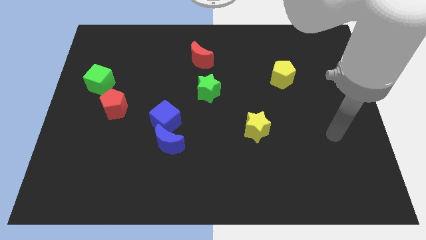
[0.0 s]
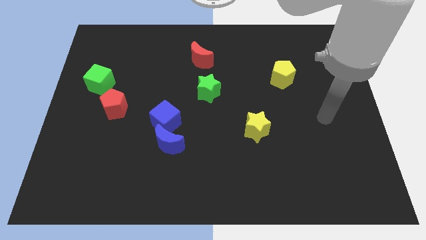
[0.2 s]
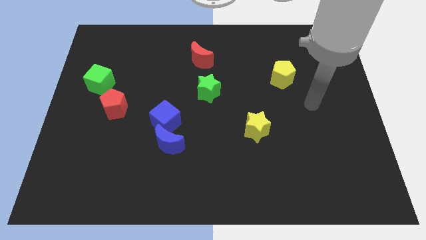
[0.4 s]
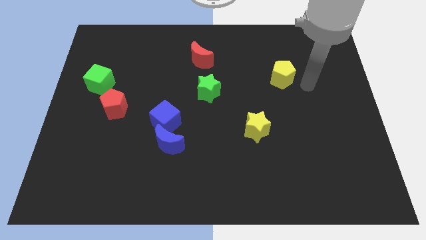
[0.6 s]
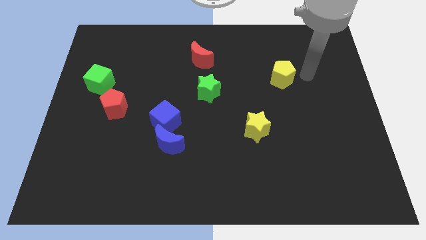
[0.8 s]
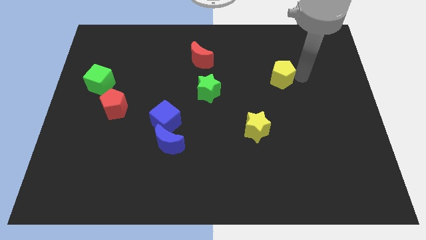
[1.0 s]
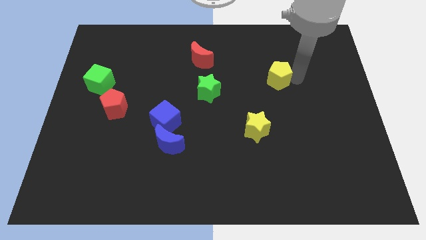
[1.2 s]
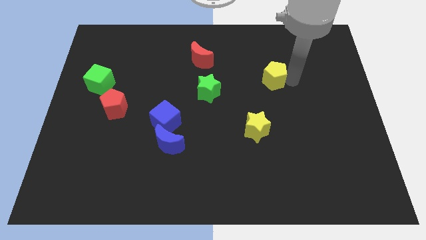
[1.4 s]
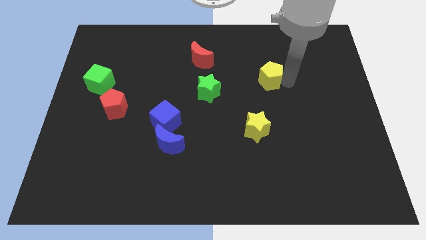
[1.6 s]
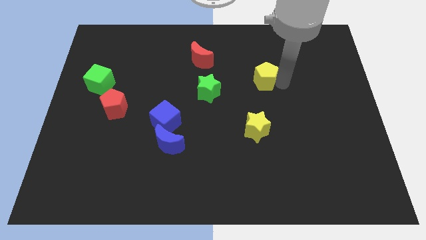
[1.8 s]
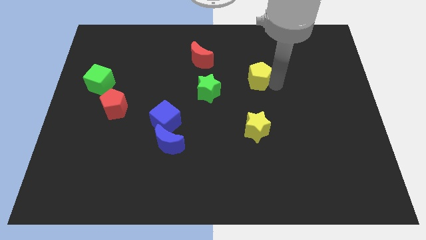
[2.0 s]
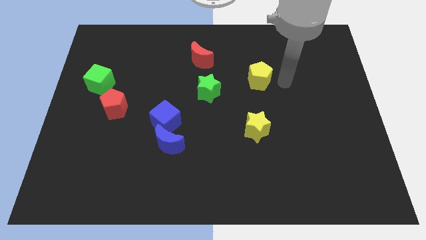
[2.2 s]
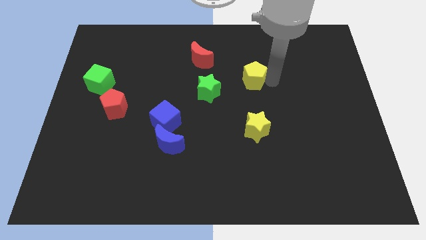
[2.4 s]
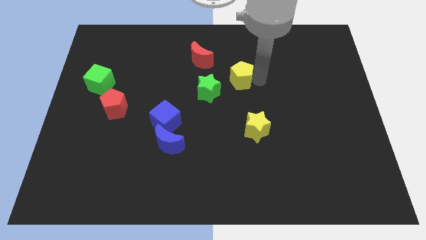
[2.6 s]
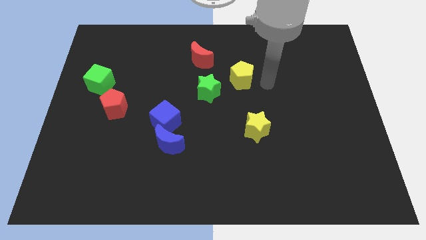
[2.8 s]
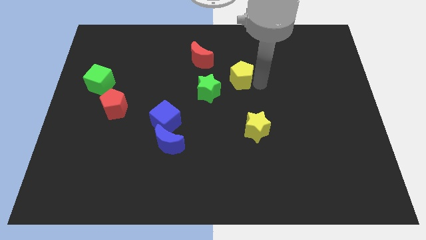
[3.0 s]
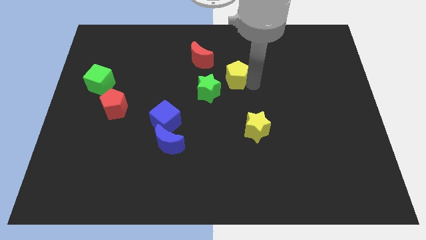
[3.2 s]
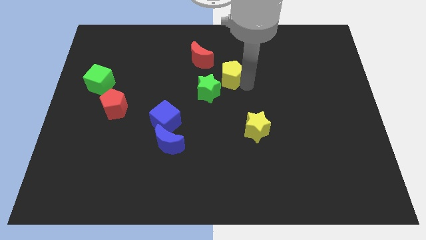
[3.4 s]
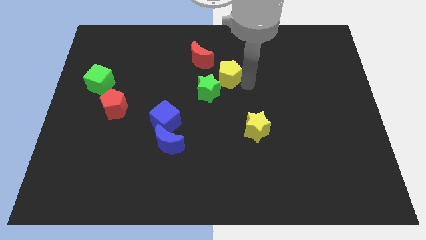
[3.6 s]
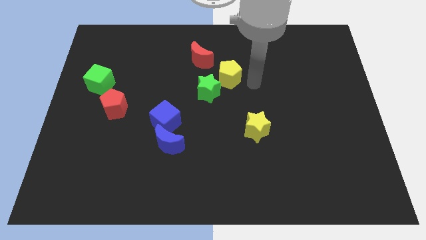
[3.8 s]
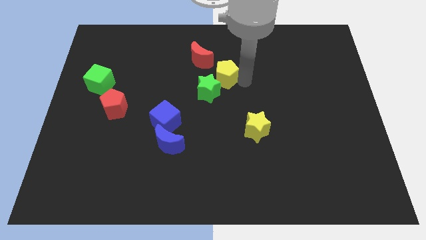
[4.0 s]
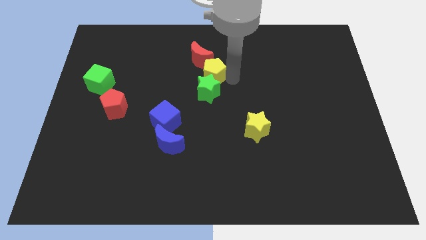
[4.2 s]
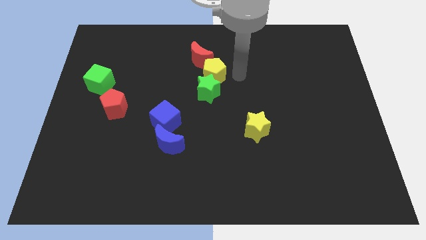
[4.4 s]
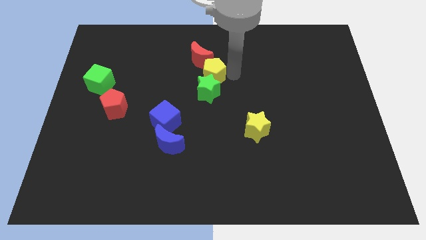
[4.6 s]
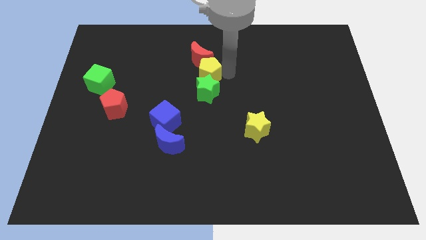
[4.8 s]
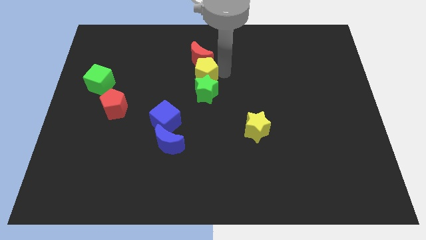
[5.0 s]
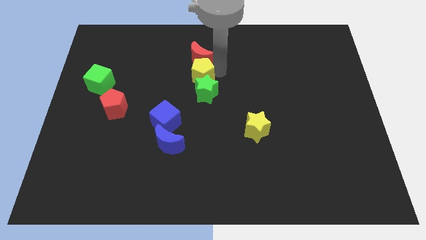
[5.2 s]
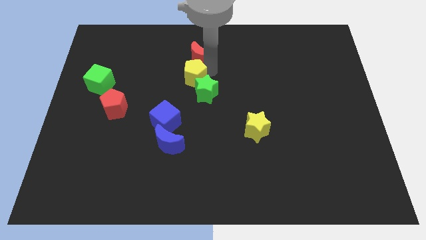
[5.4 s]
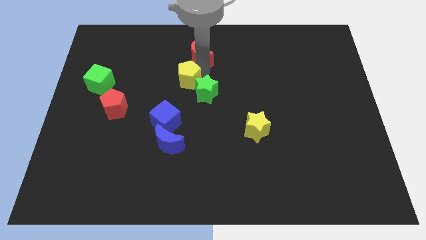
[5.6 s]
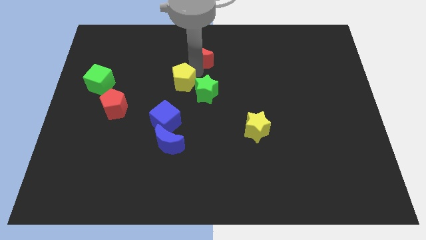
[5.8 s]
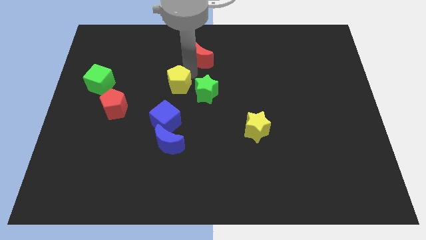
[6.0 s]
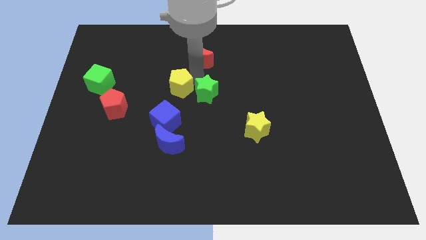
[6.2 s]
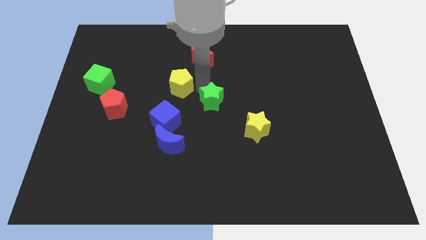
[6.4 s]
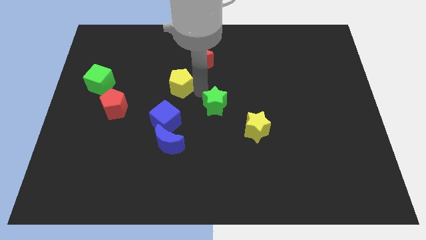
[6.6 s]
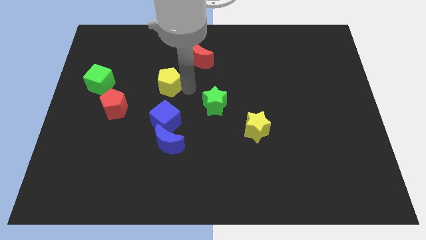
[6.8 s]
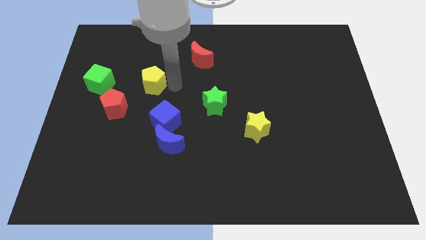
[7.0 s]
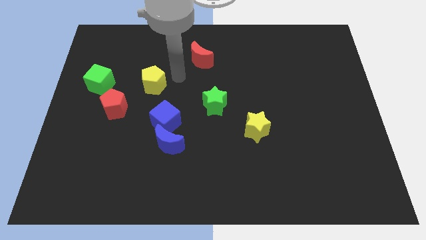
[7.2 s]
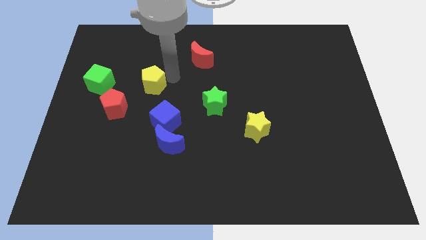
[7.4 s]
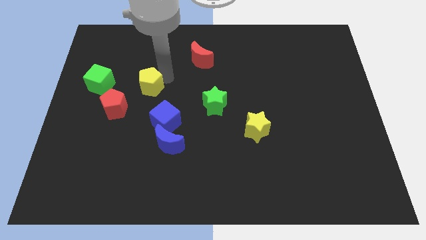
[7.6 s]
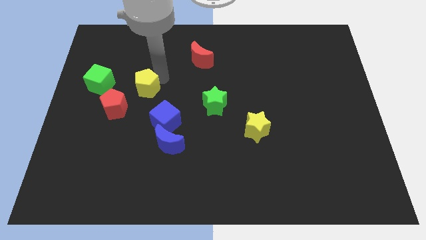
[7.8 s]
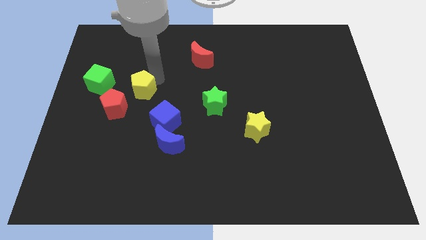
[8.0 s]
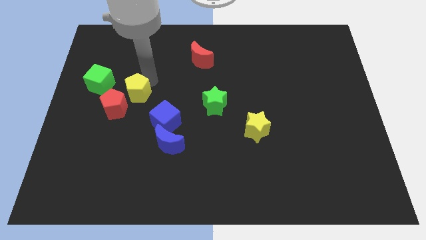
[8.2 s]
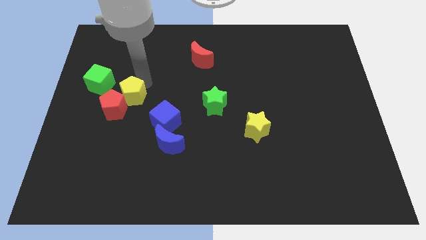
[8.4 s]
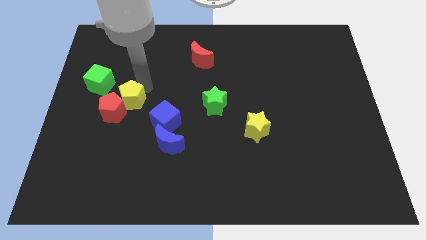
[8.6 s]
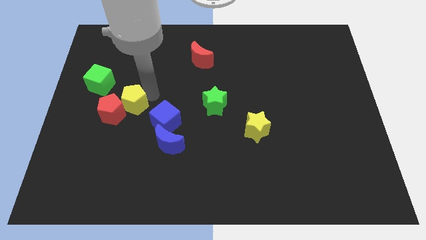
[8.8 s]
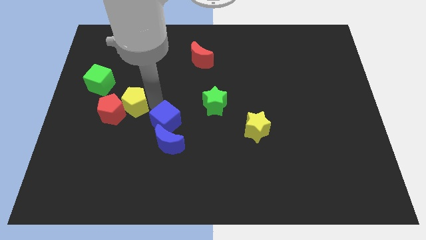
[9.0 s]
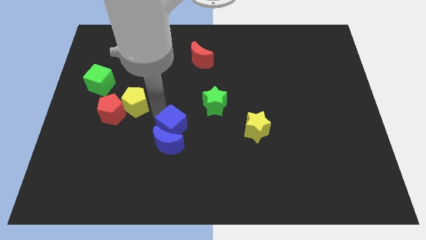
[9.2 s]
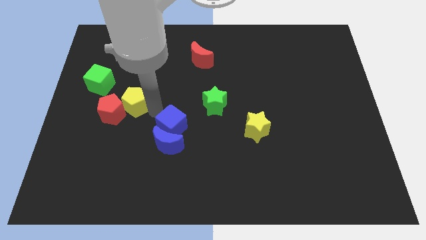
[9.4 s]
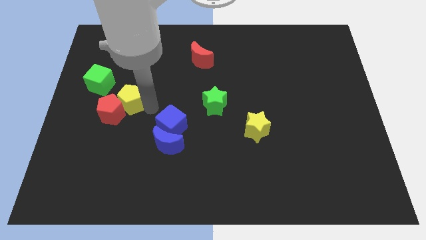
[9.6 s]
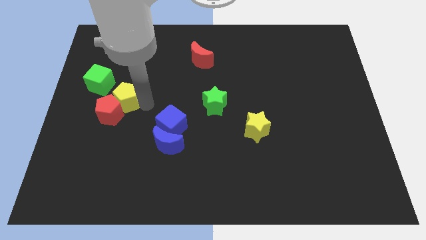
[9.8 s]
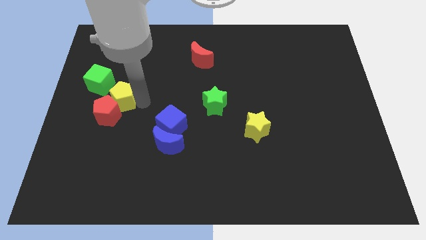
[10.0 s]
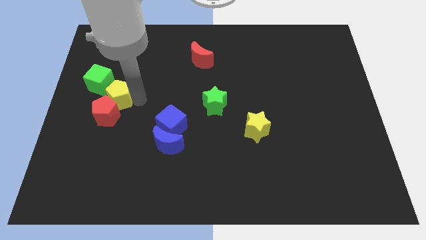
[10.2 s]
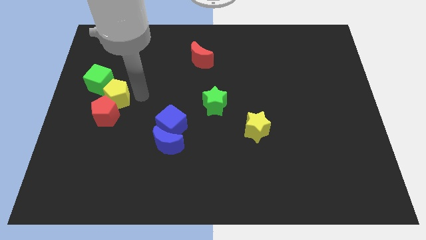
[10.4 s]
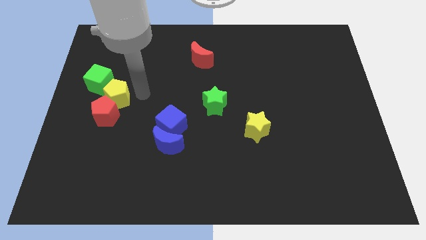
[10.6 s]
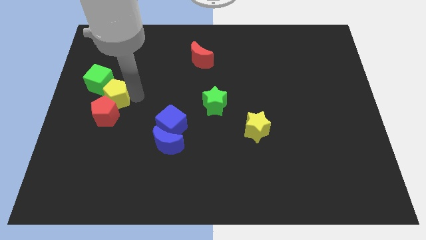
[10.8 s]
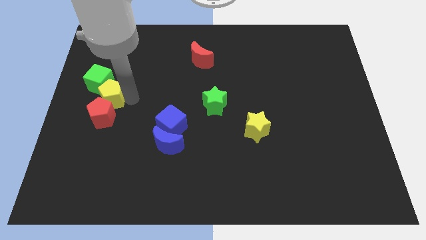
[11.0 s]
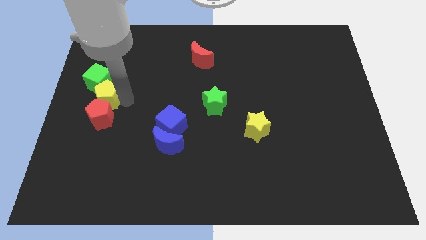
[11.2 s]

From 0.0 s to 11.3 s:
move the yellow pentagon to the left side
